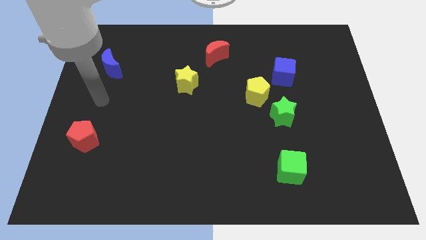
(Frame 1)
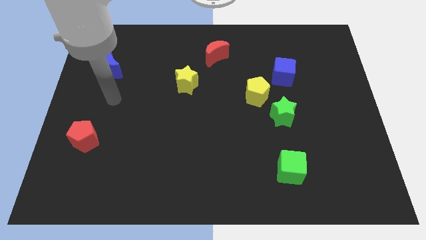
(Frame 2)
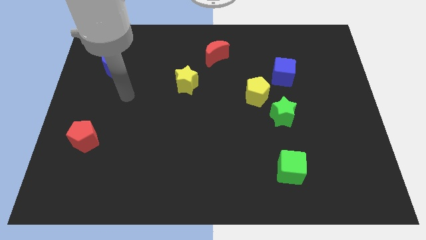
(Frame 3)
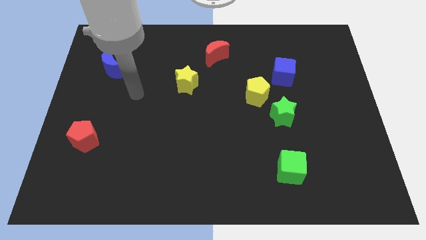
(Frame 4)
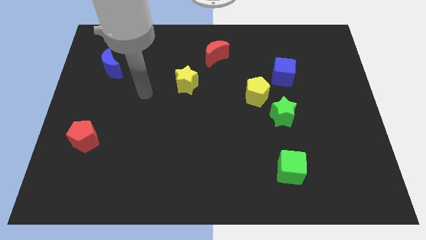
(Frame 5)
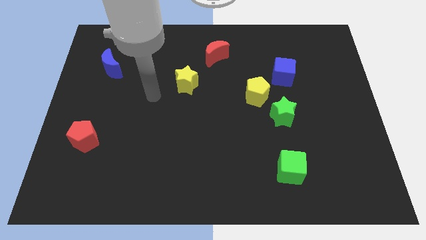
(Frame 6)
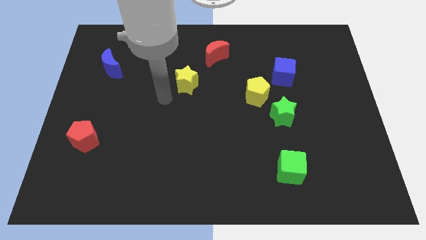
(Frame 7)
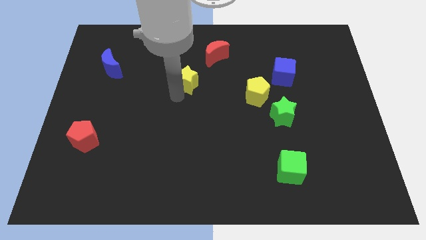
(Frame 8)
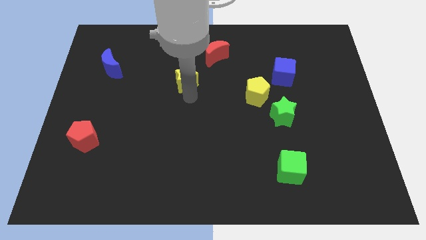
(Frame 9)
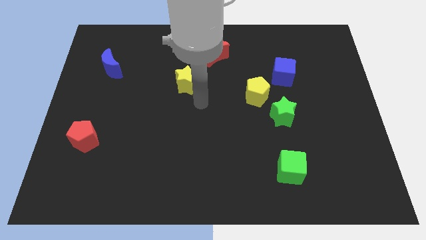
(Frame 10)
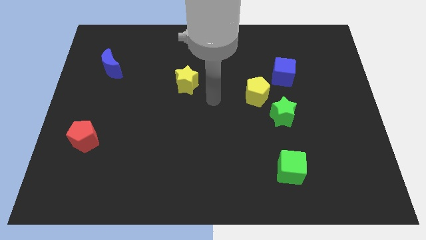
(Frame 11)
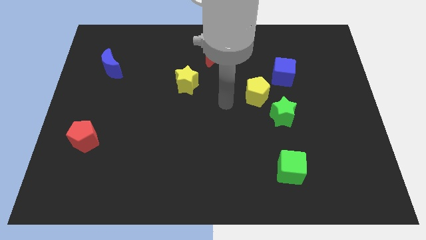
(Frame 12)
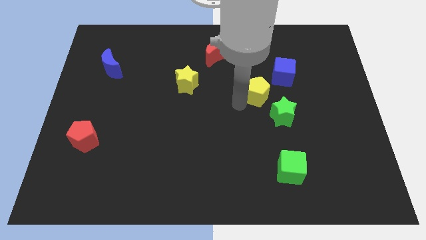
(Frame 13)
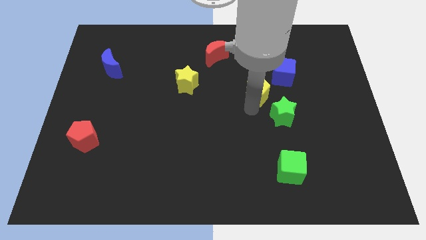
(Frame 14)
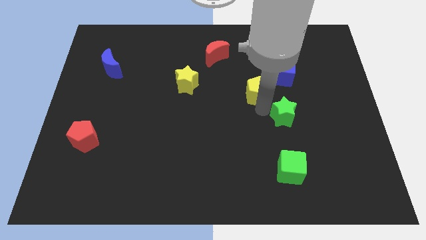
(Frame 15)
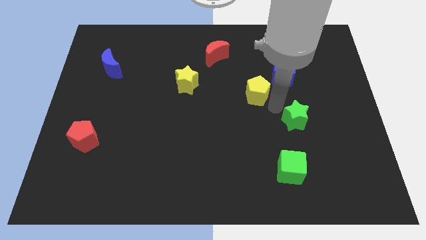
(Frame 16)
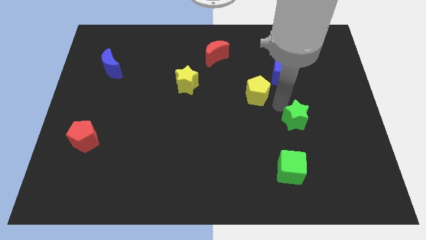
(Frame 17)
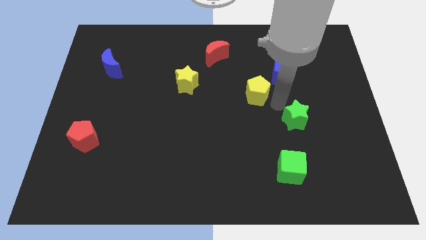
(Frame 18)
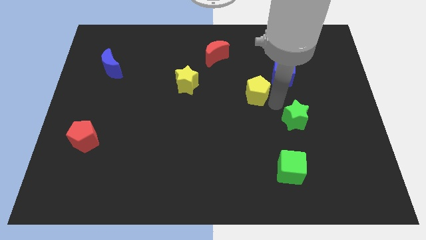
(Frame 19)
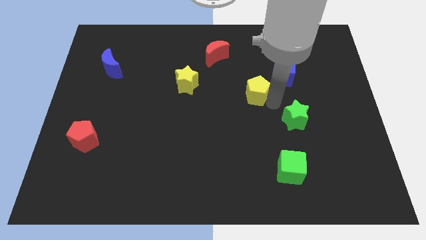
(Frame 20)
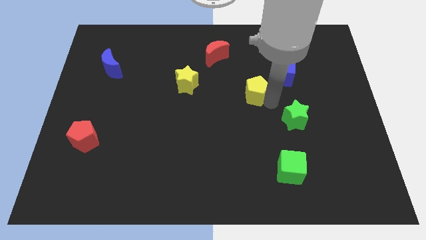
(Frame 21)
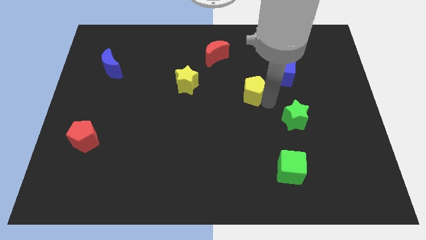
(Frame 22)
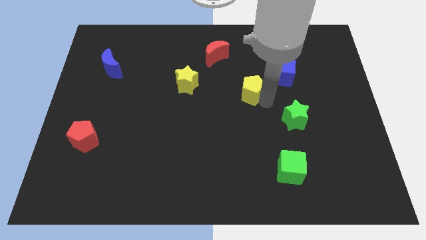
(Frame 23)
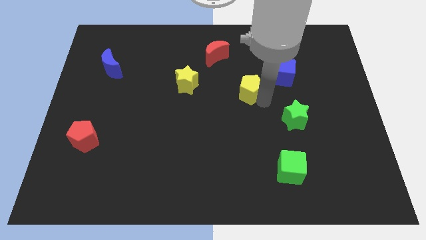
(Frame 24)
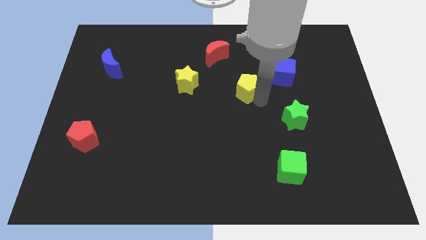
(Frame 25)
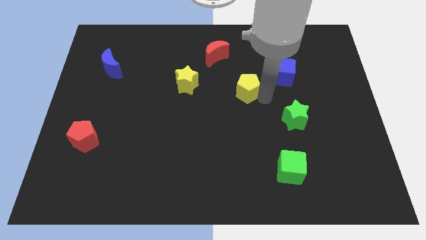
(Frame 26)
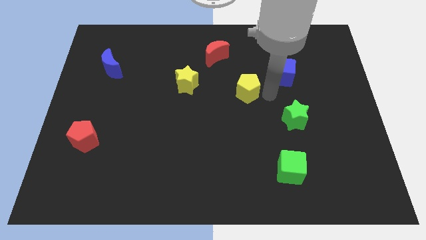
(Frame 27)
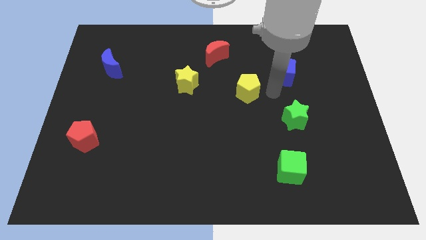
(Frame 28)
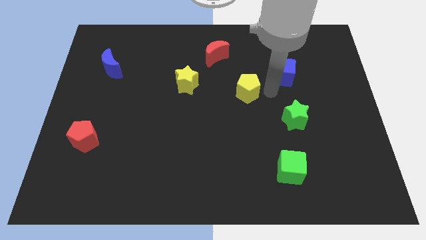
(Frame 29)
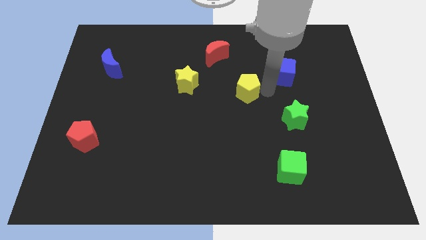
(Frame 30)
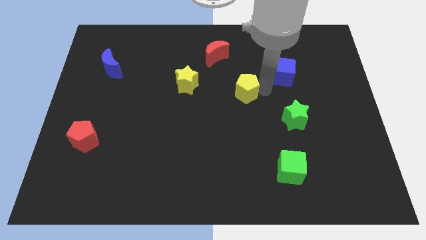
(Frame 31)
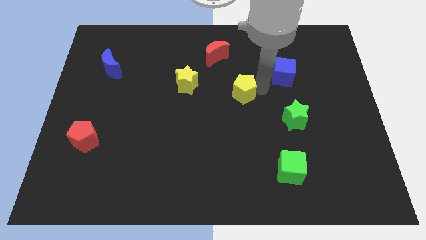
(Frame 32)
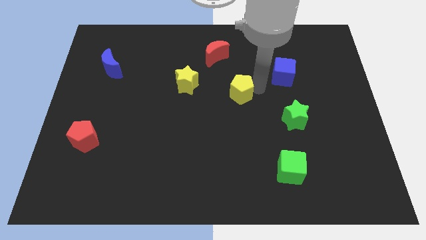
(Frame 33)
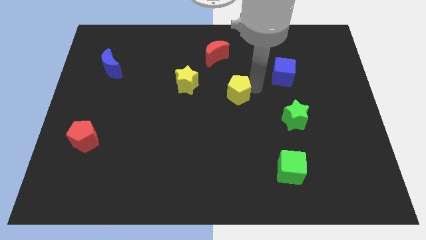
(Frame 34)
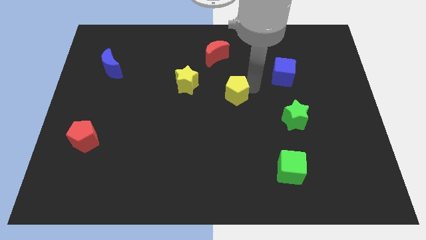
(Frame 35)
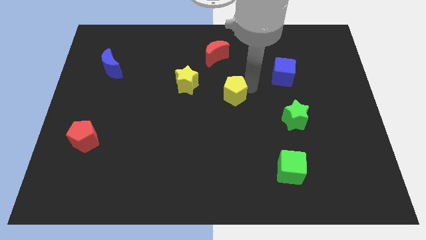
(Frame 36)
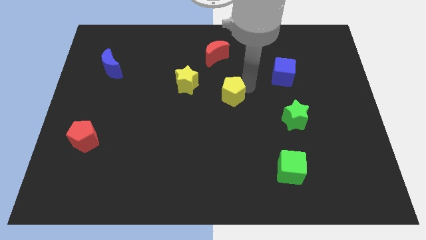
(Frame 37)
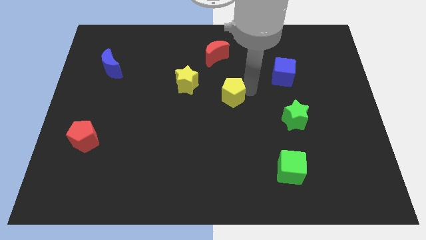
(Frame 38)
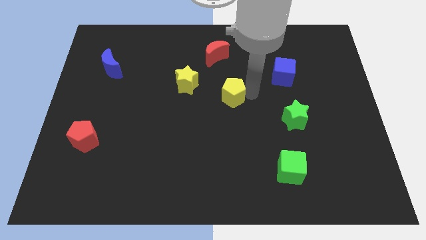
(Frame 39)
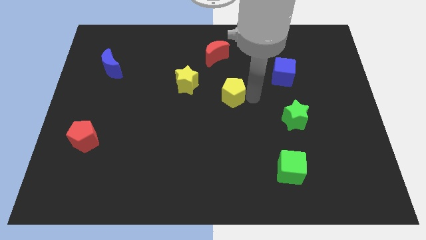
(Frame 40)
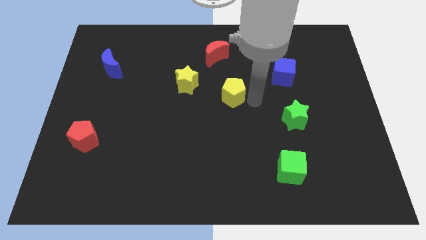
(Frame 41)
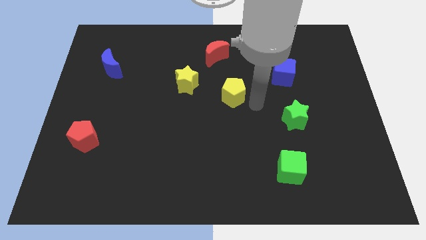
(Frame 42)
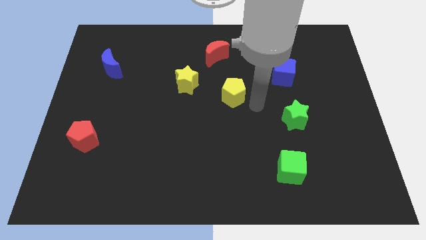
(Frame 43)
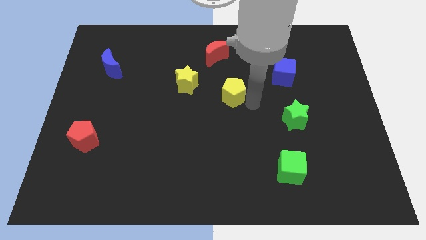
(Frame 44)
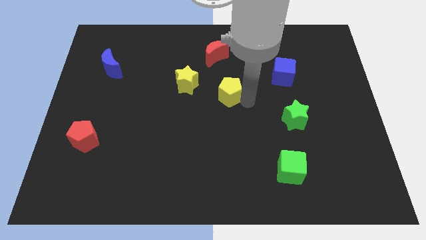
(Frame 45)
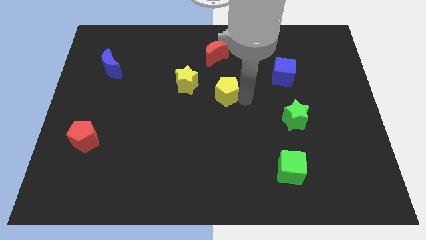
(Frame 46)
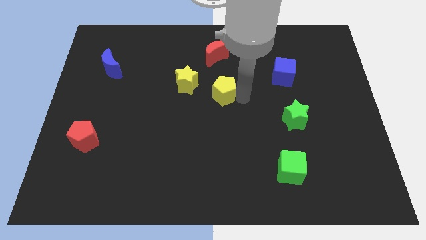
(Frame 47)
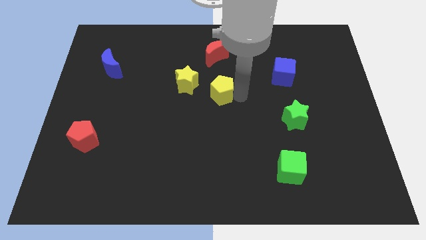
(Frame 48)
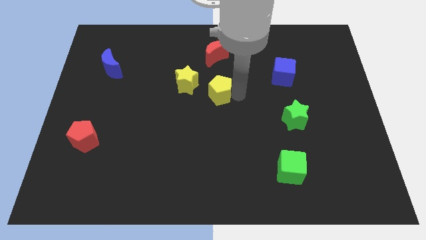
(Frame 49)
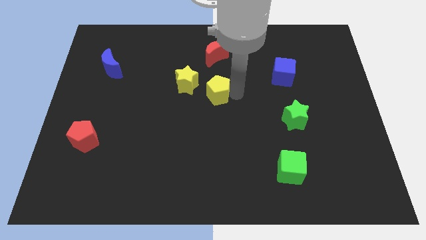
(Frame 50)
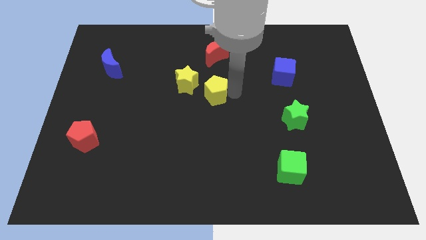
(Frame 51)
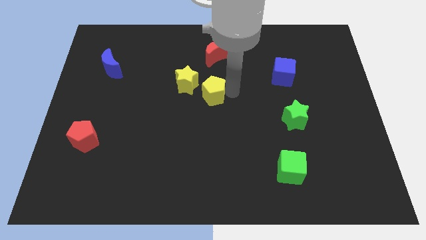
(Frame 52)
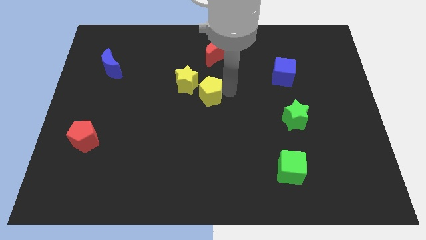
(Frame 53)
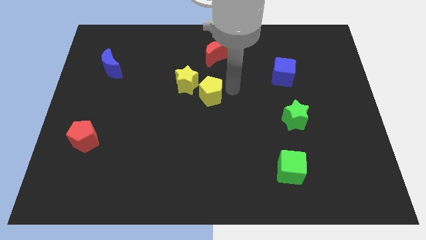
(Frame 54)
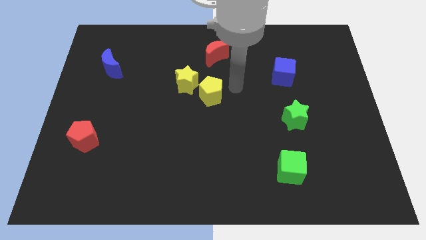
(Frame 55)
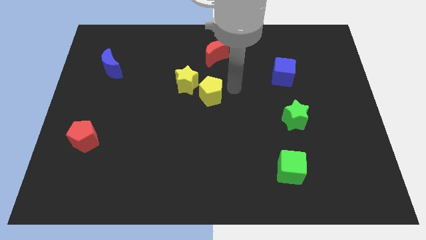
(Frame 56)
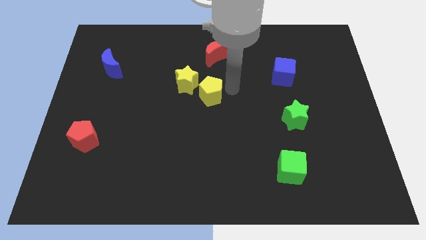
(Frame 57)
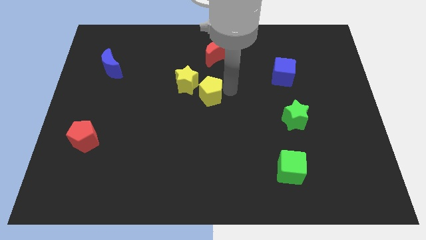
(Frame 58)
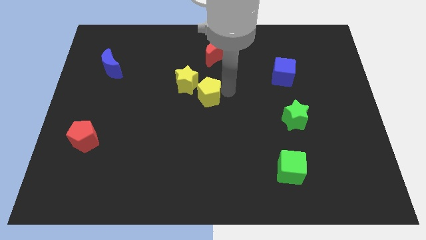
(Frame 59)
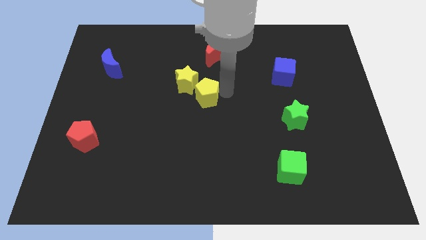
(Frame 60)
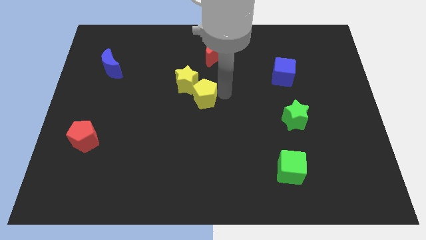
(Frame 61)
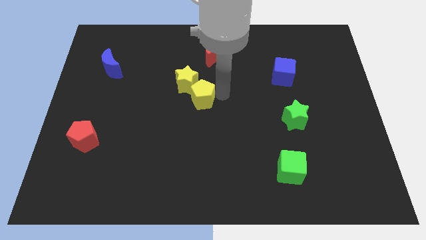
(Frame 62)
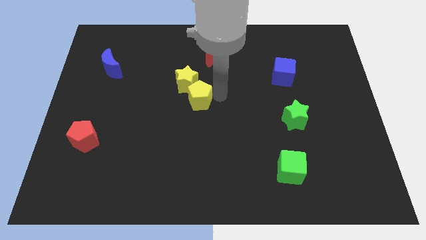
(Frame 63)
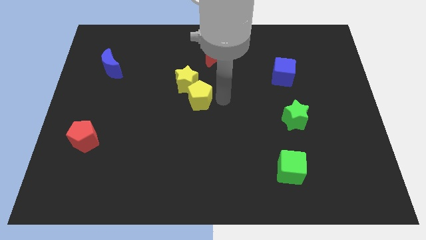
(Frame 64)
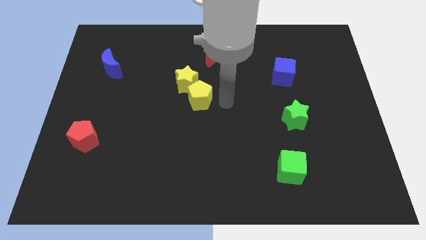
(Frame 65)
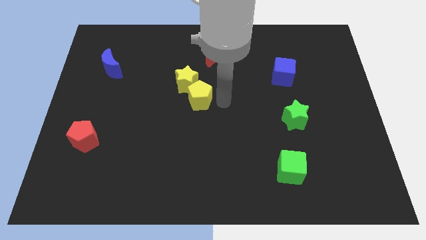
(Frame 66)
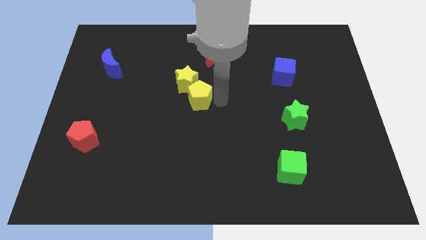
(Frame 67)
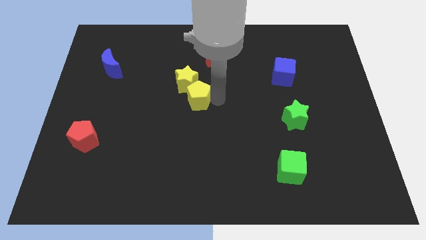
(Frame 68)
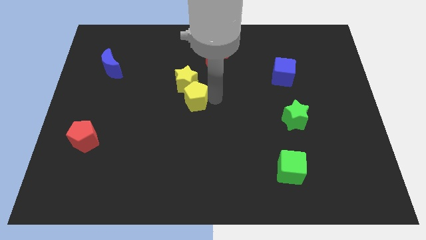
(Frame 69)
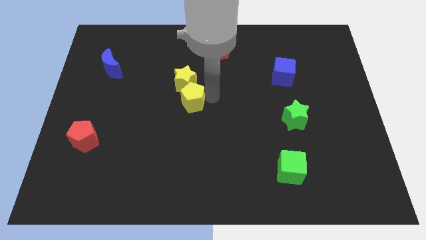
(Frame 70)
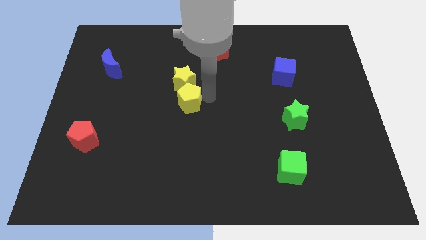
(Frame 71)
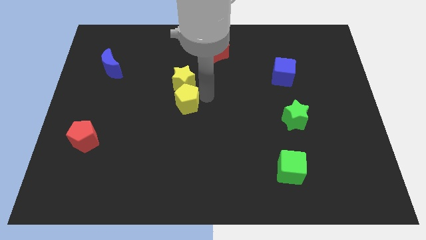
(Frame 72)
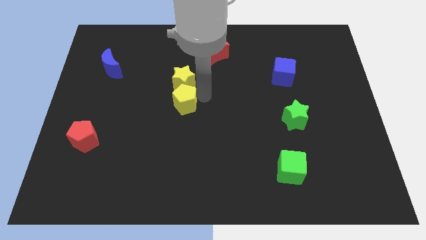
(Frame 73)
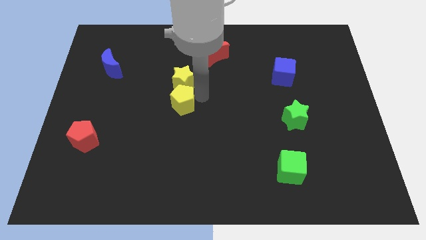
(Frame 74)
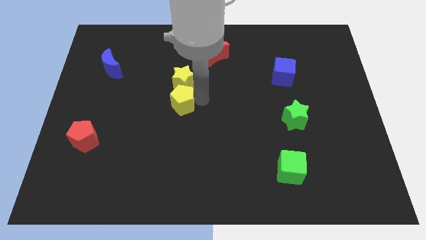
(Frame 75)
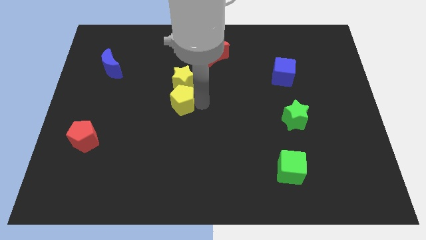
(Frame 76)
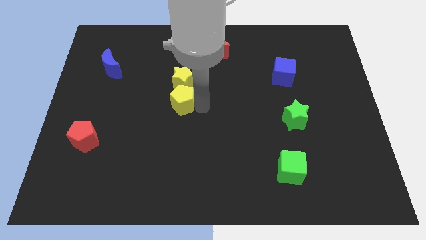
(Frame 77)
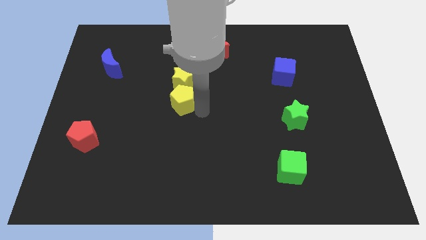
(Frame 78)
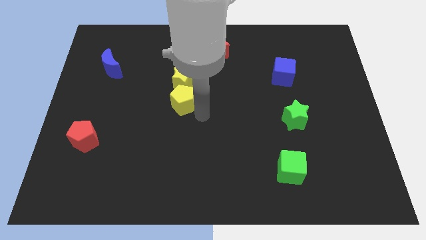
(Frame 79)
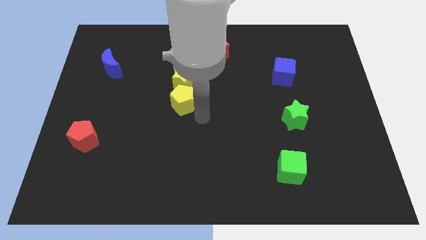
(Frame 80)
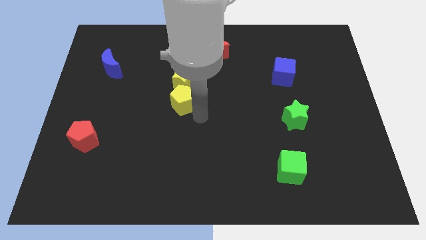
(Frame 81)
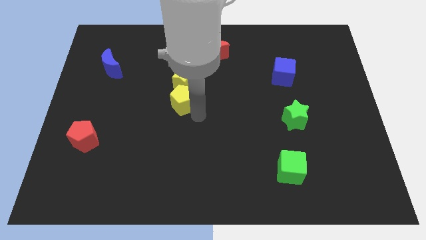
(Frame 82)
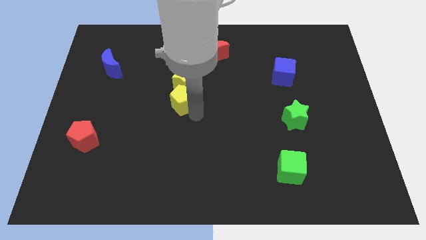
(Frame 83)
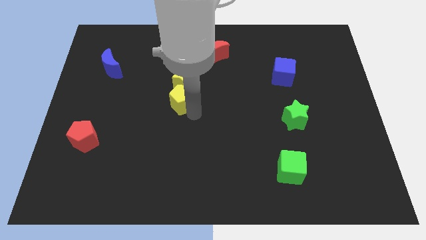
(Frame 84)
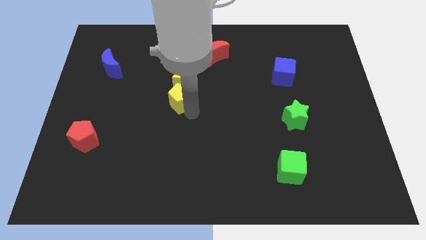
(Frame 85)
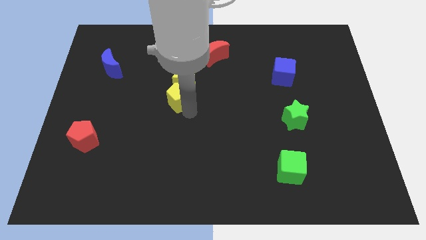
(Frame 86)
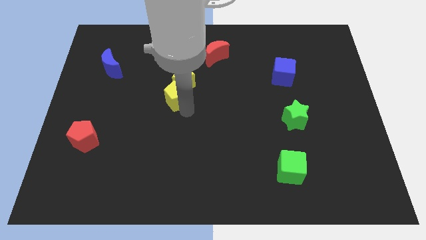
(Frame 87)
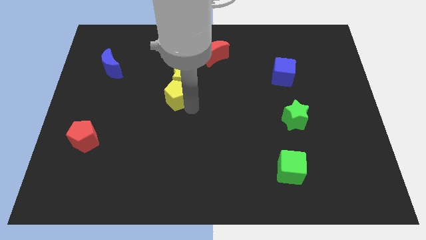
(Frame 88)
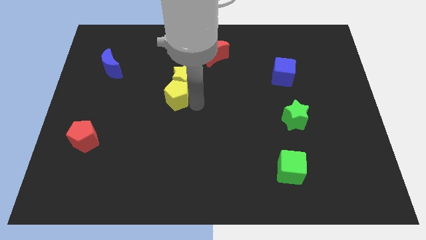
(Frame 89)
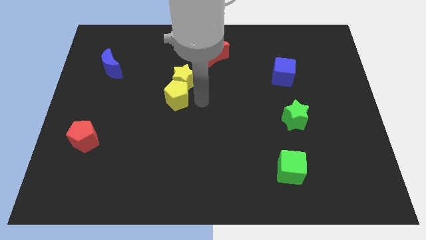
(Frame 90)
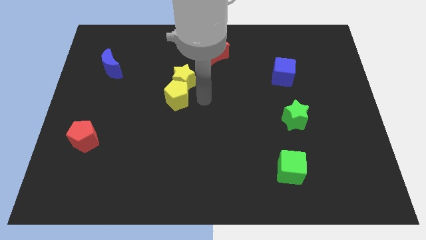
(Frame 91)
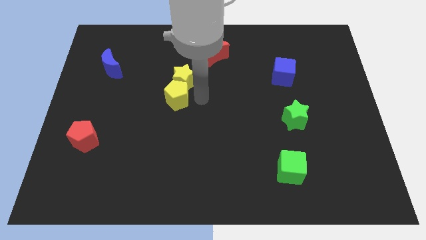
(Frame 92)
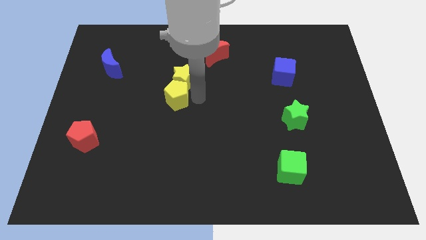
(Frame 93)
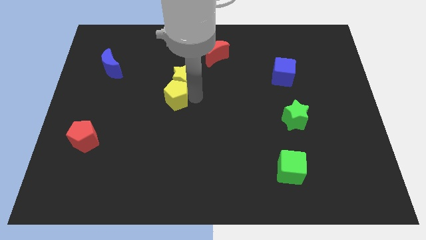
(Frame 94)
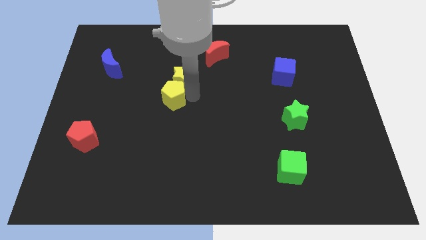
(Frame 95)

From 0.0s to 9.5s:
push the yellow pentagon to the left
